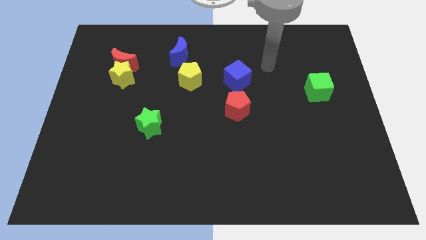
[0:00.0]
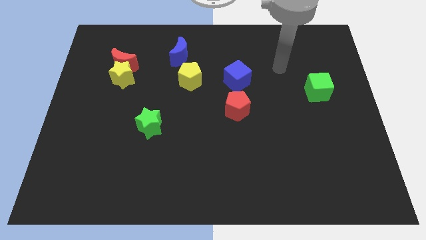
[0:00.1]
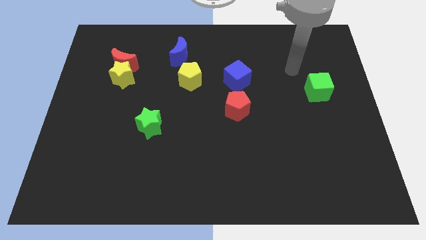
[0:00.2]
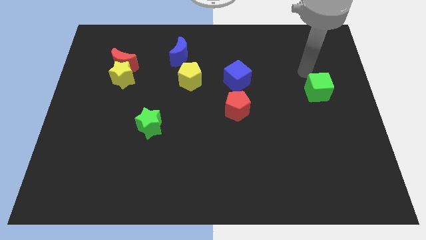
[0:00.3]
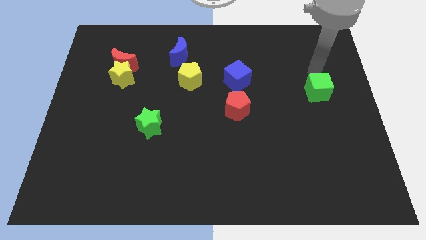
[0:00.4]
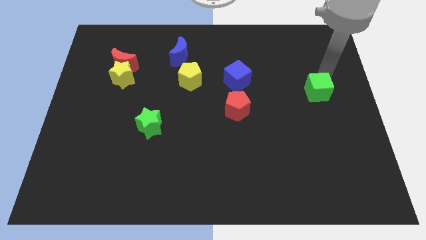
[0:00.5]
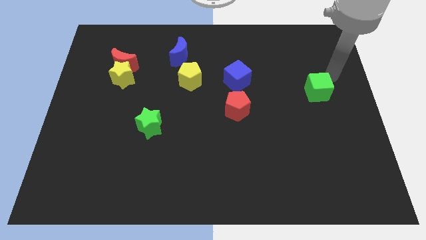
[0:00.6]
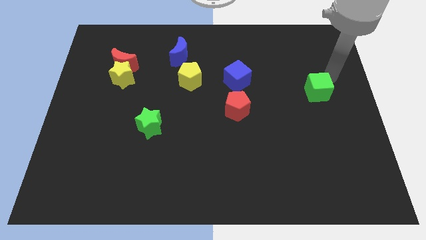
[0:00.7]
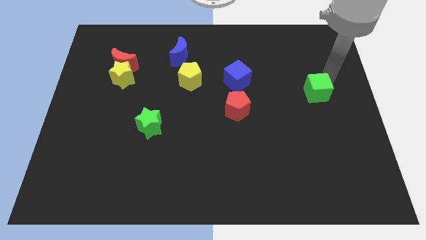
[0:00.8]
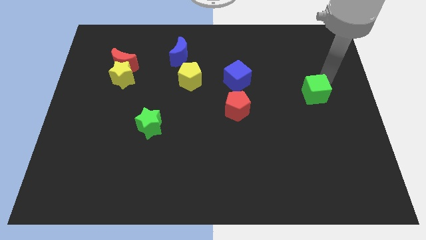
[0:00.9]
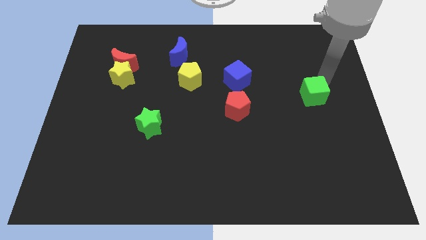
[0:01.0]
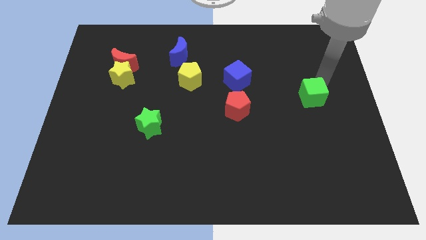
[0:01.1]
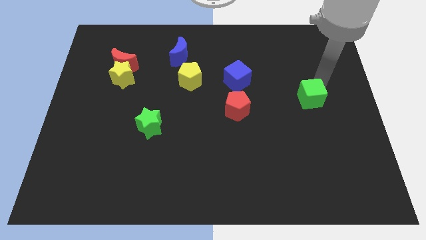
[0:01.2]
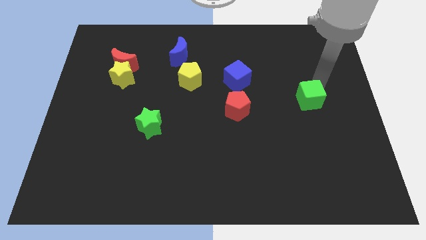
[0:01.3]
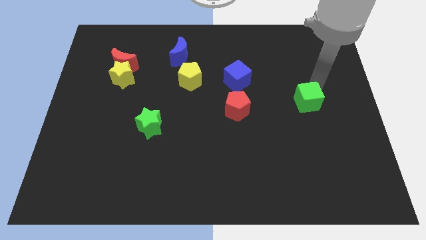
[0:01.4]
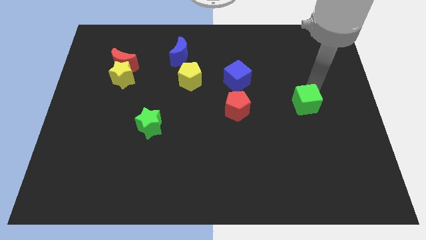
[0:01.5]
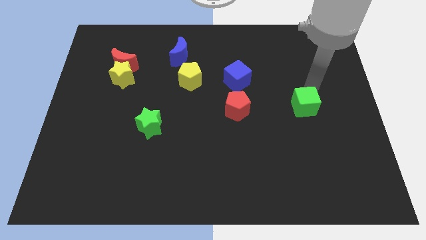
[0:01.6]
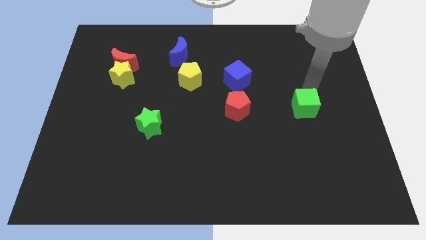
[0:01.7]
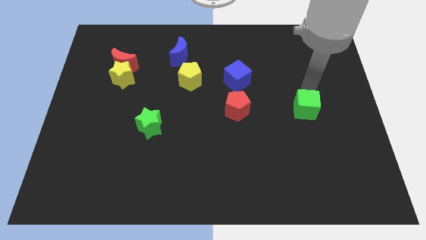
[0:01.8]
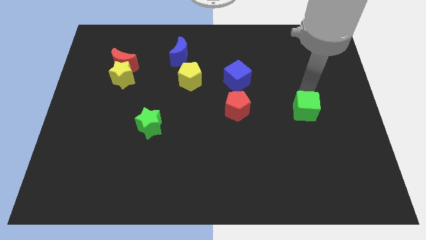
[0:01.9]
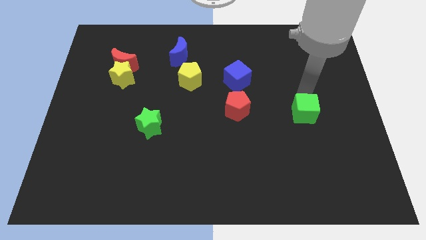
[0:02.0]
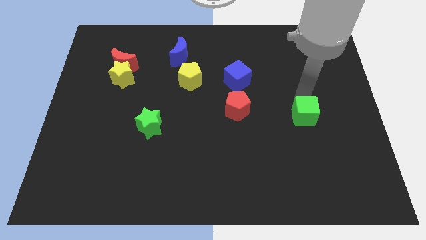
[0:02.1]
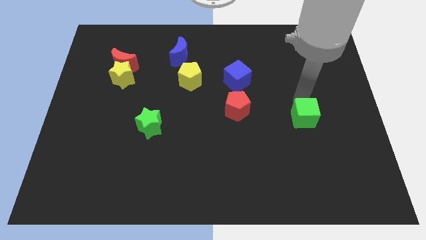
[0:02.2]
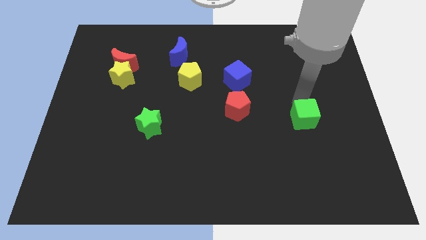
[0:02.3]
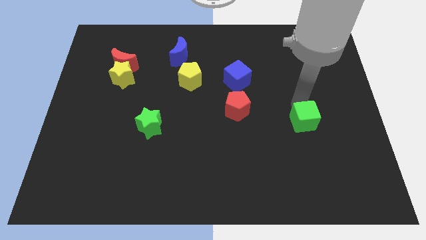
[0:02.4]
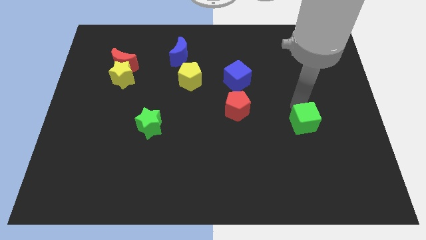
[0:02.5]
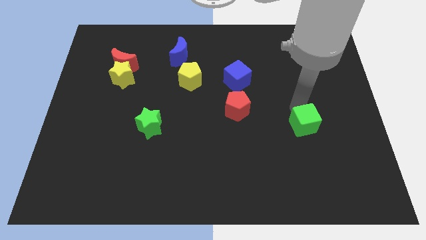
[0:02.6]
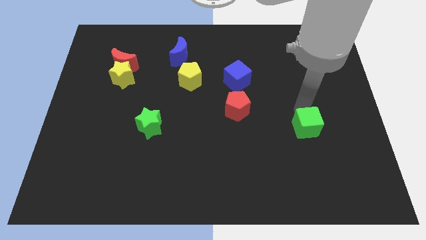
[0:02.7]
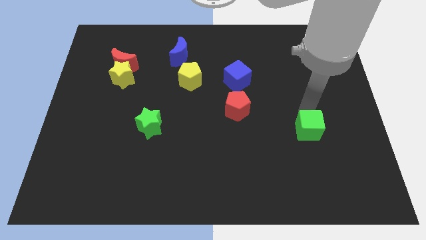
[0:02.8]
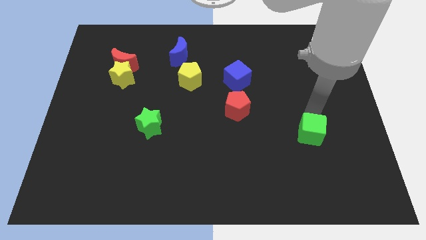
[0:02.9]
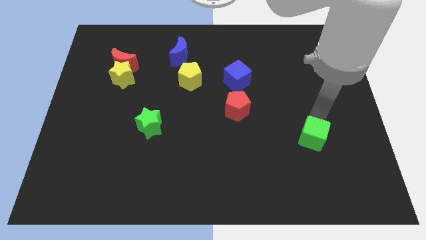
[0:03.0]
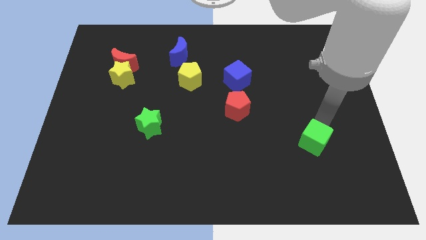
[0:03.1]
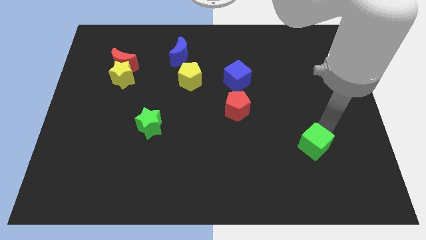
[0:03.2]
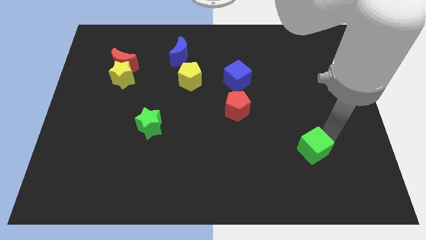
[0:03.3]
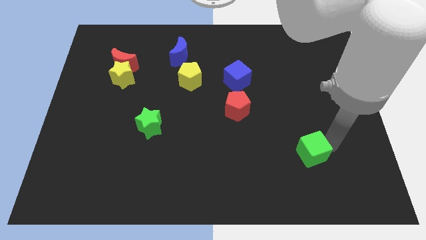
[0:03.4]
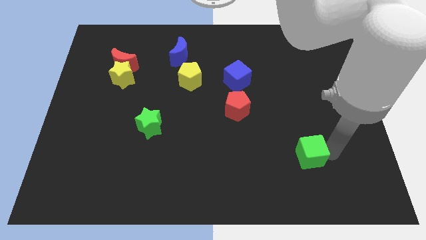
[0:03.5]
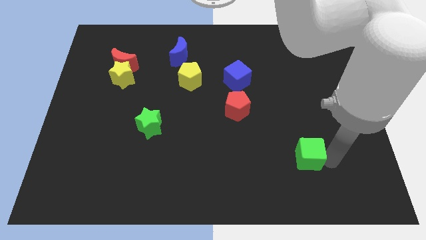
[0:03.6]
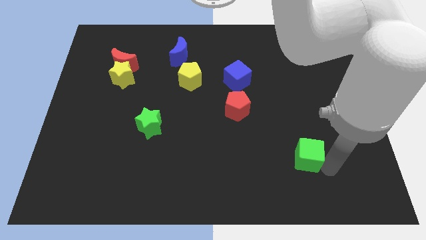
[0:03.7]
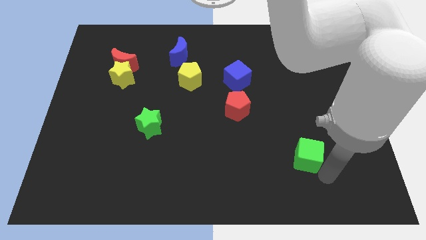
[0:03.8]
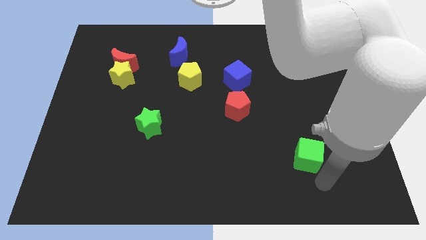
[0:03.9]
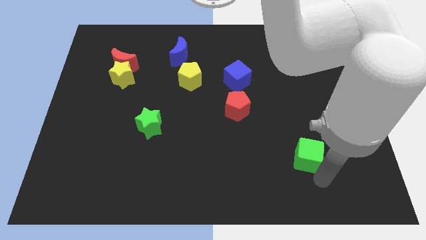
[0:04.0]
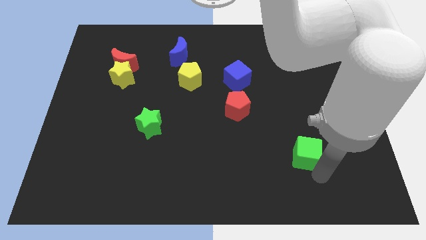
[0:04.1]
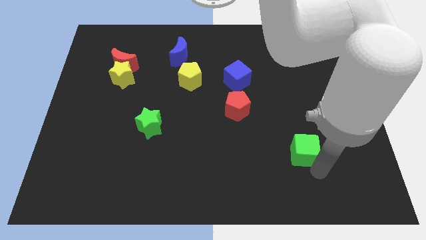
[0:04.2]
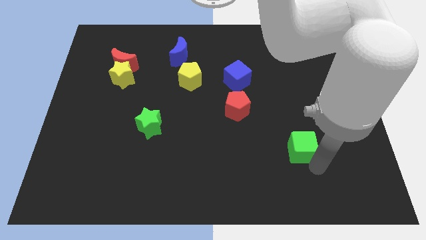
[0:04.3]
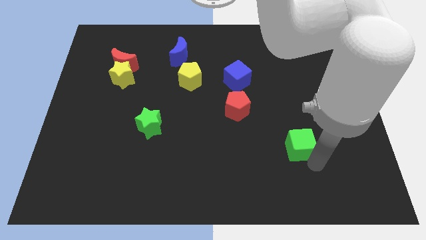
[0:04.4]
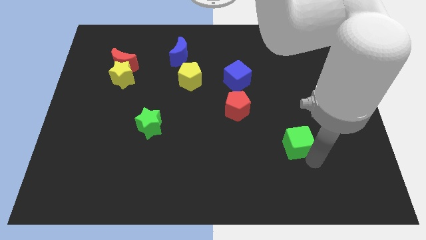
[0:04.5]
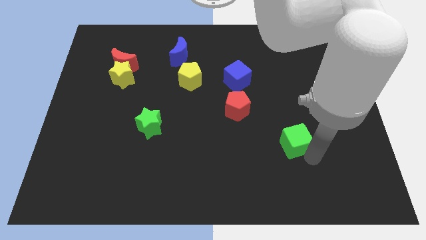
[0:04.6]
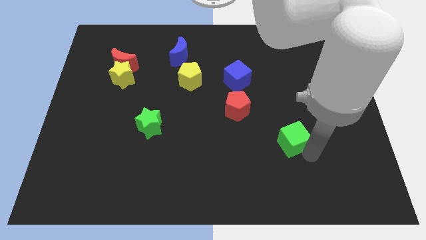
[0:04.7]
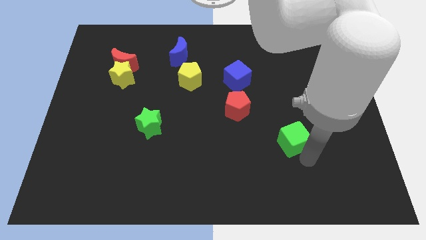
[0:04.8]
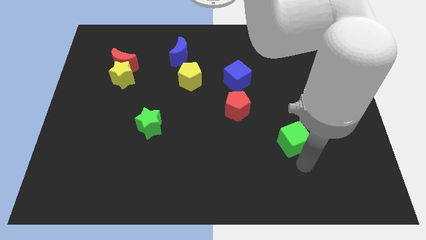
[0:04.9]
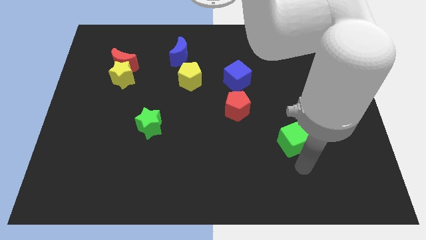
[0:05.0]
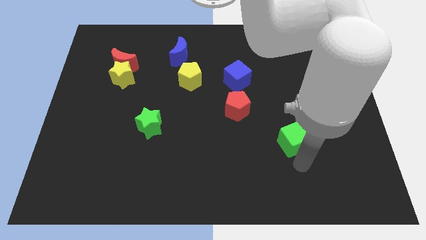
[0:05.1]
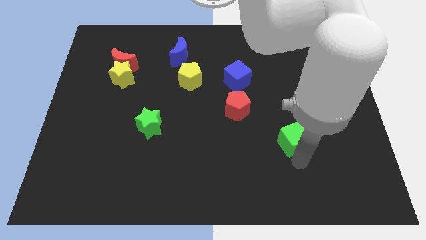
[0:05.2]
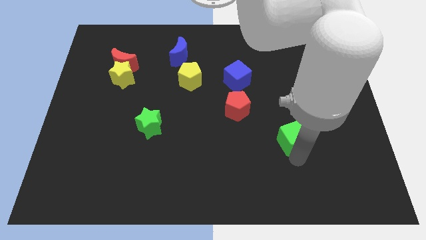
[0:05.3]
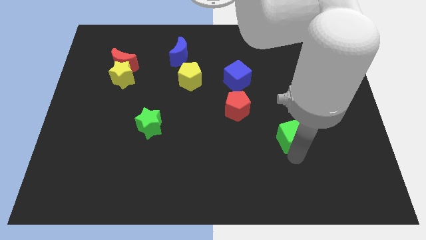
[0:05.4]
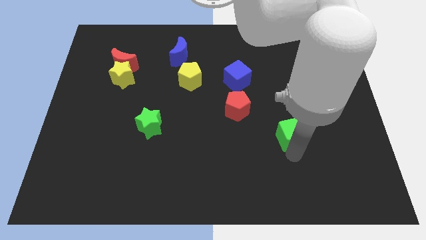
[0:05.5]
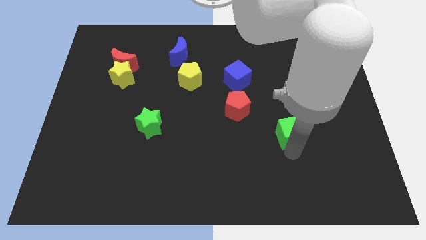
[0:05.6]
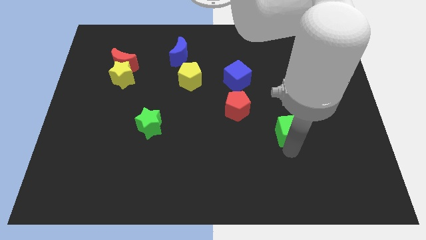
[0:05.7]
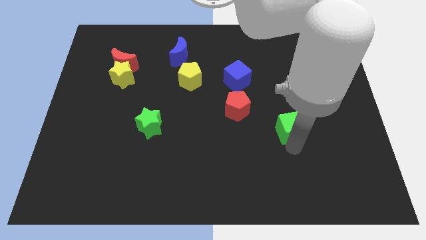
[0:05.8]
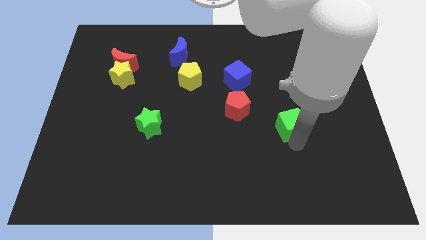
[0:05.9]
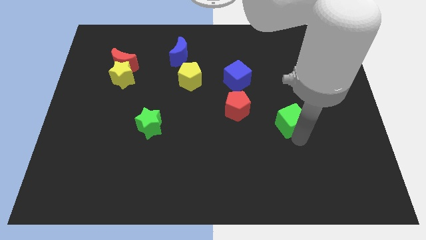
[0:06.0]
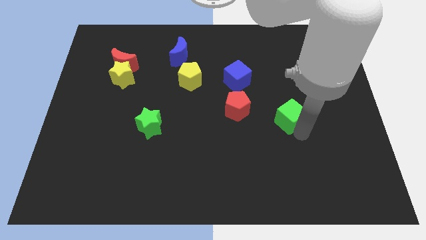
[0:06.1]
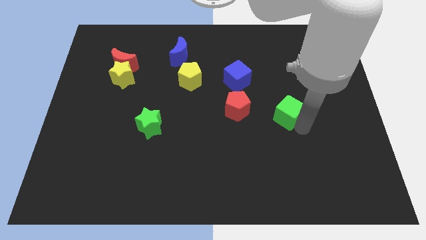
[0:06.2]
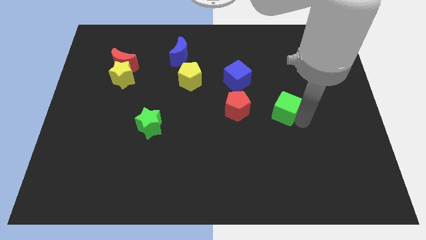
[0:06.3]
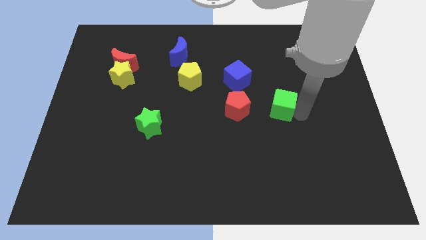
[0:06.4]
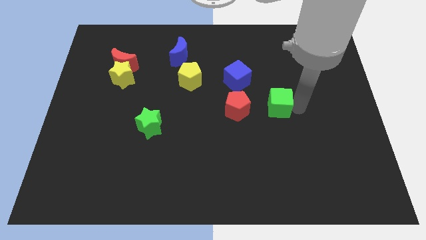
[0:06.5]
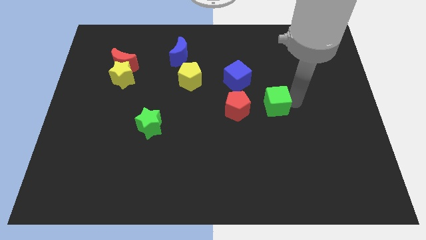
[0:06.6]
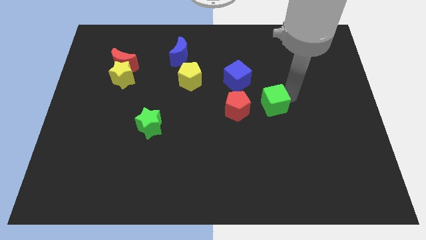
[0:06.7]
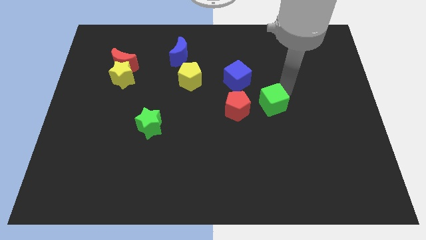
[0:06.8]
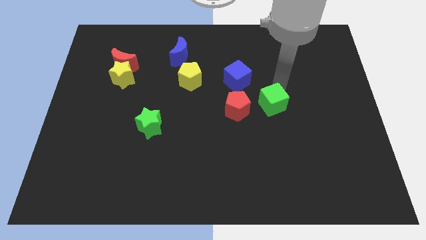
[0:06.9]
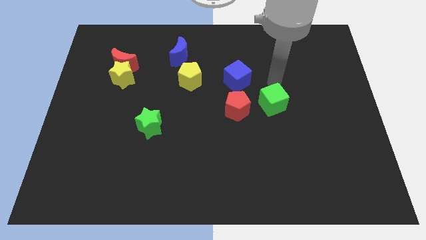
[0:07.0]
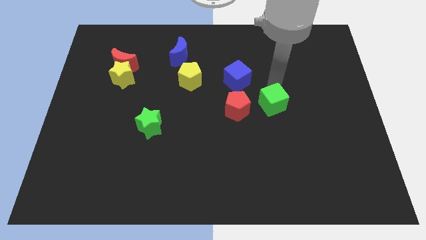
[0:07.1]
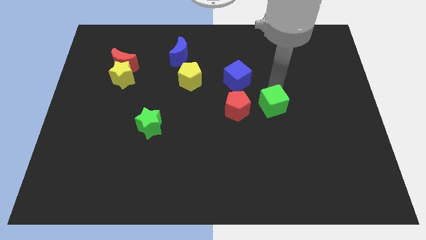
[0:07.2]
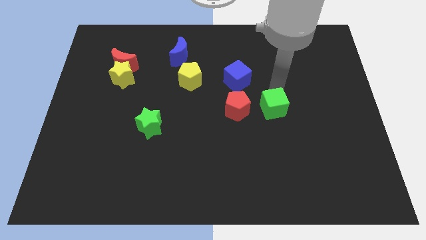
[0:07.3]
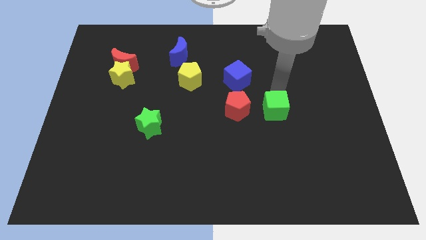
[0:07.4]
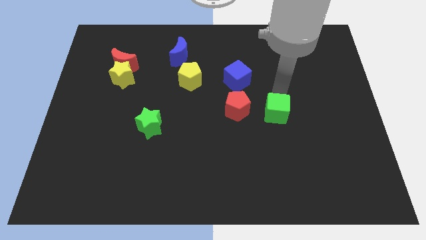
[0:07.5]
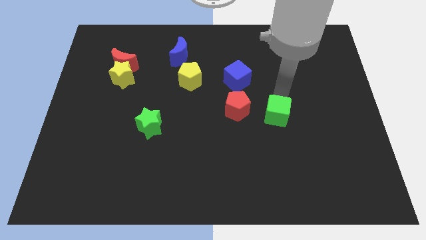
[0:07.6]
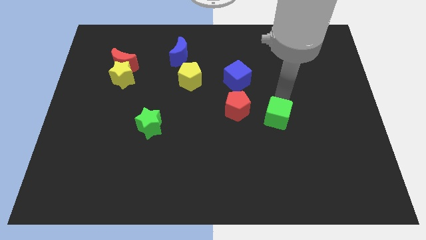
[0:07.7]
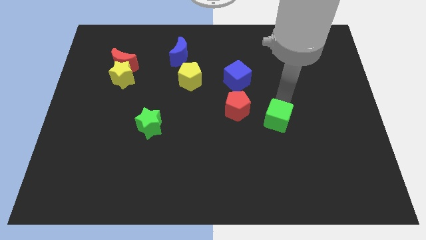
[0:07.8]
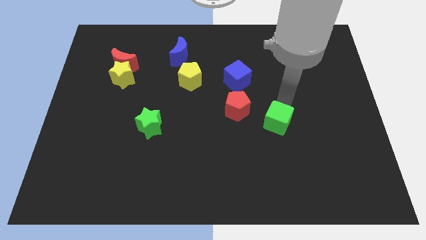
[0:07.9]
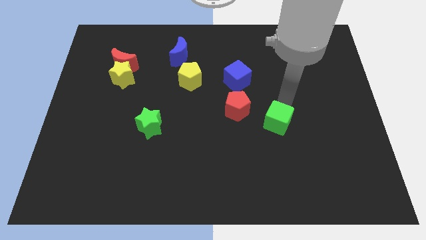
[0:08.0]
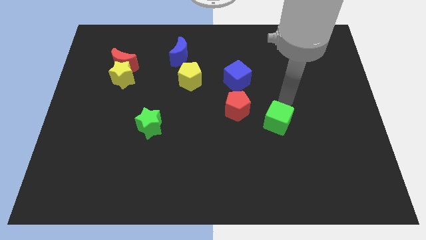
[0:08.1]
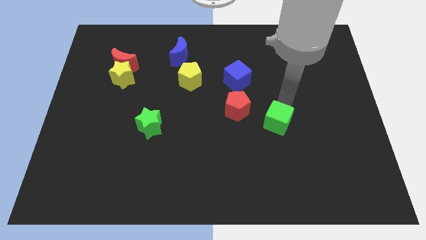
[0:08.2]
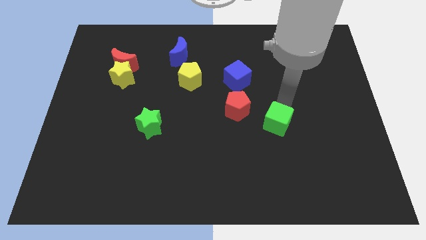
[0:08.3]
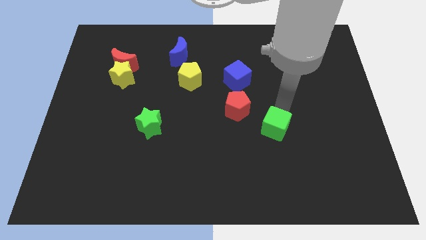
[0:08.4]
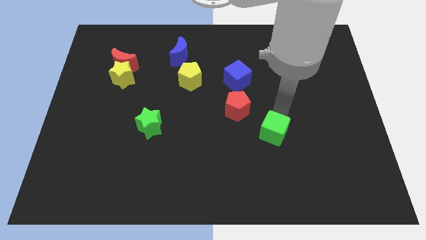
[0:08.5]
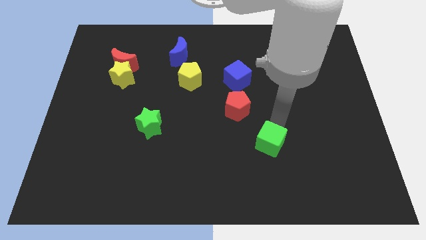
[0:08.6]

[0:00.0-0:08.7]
push the green cube diagonally downwards and to the left
